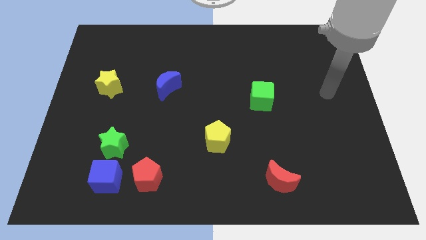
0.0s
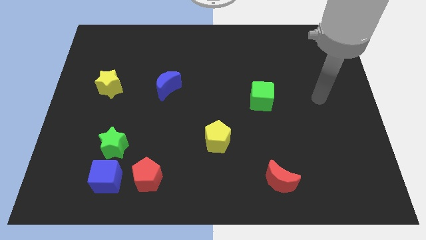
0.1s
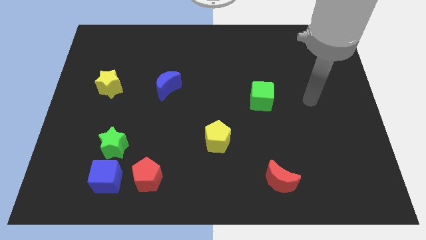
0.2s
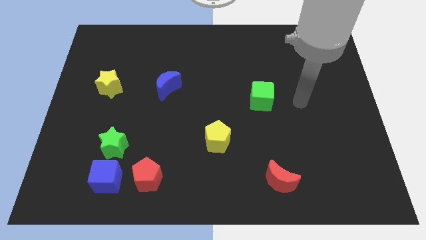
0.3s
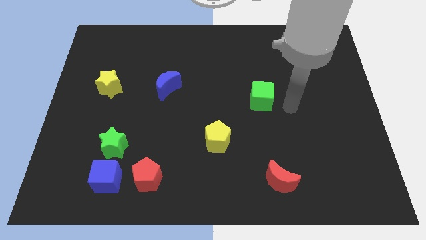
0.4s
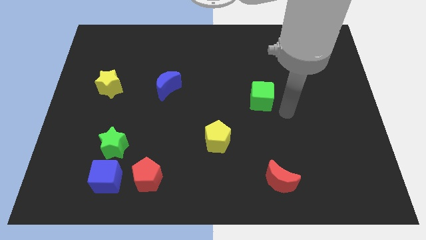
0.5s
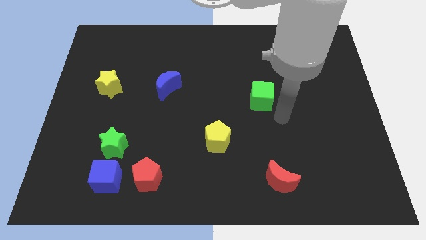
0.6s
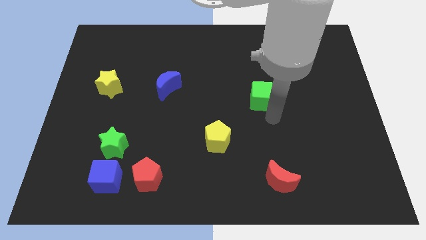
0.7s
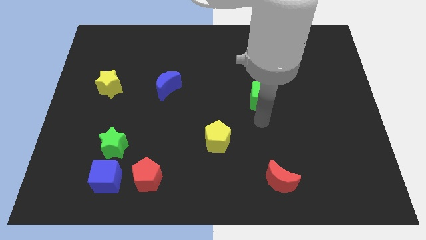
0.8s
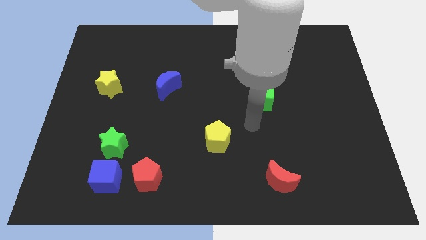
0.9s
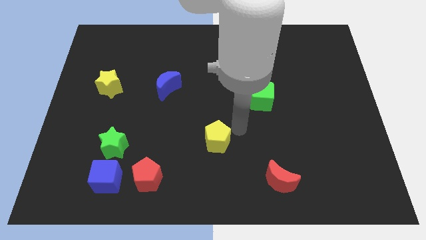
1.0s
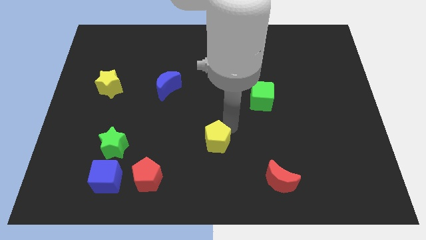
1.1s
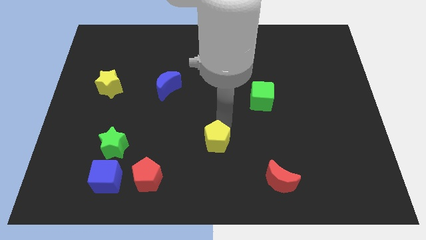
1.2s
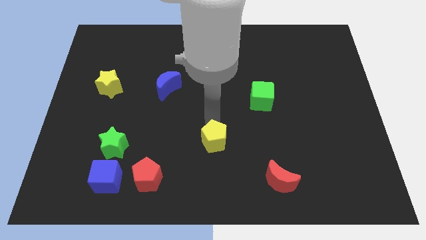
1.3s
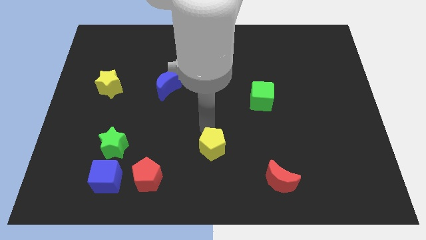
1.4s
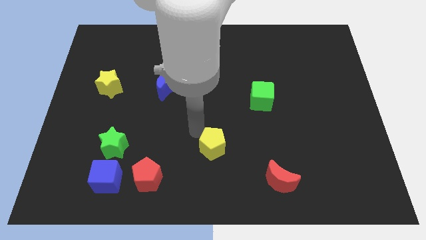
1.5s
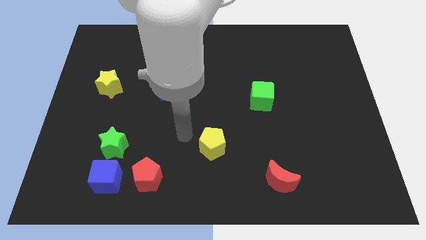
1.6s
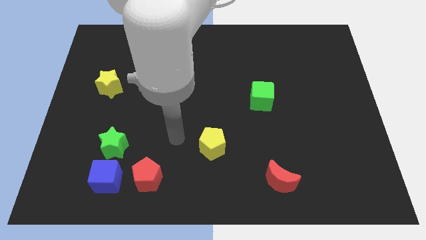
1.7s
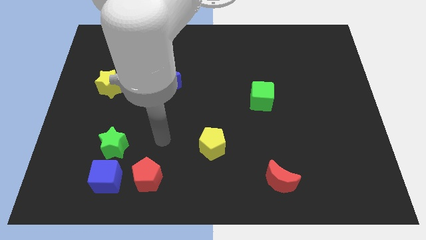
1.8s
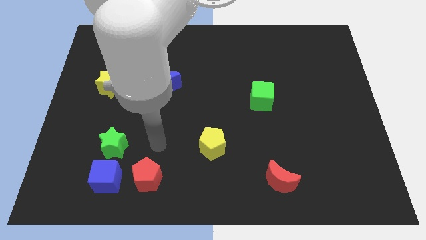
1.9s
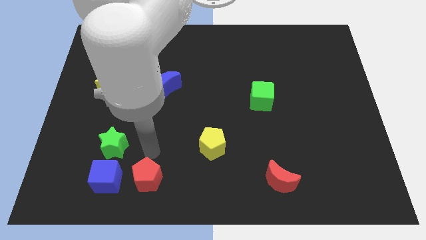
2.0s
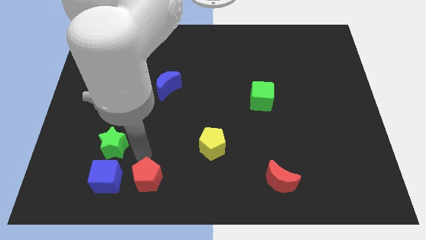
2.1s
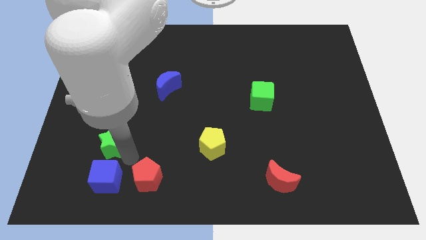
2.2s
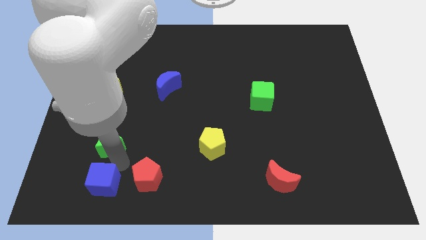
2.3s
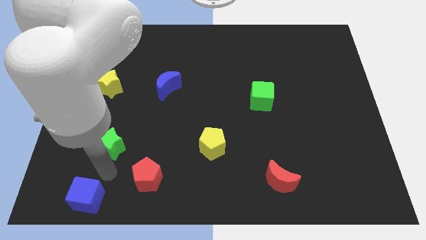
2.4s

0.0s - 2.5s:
pull the green star apart from the blue cube

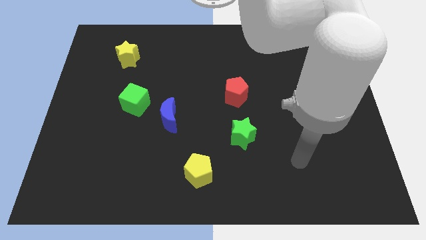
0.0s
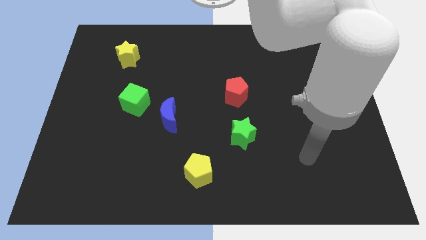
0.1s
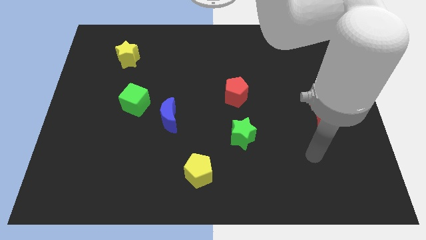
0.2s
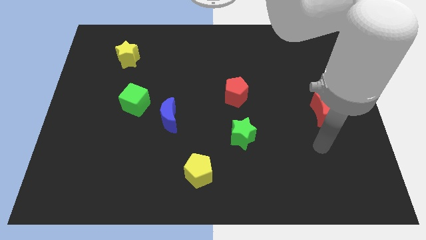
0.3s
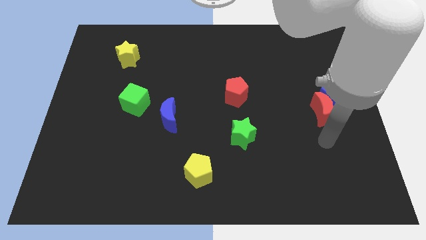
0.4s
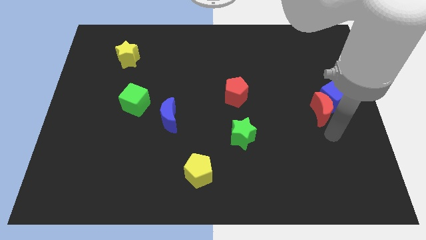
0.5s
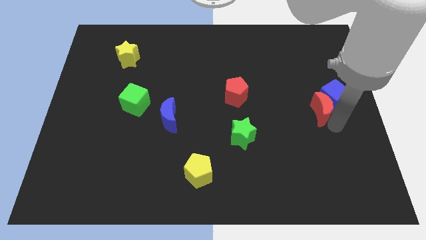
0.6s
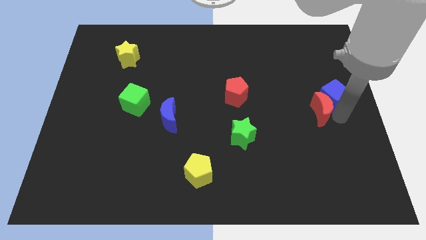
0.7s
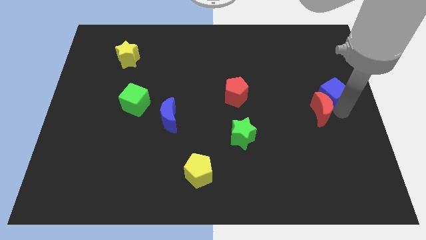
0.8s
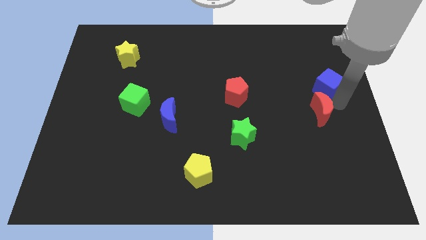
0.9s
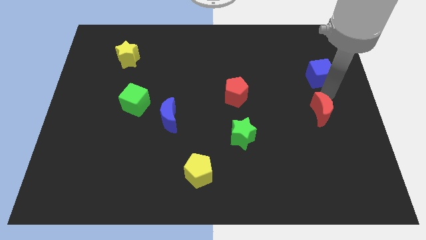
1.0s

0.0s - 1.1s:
pull the red moon apart from the blue cube

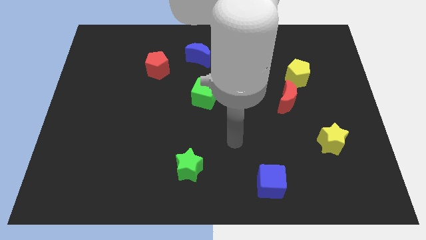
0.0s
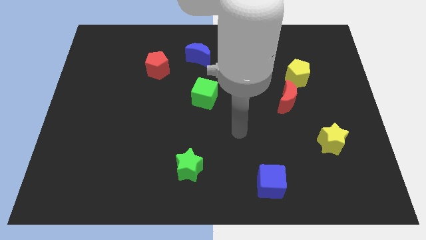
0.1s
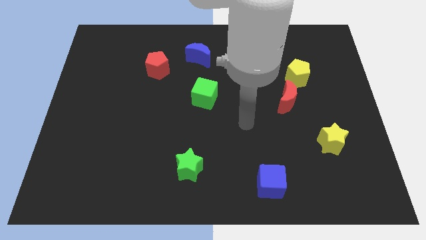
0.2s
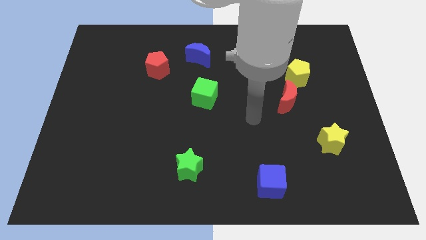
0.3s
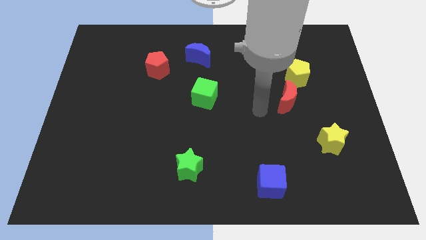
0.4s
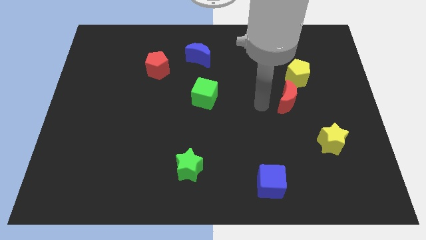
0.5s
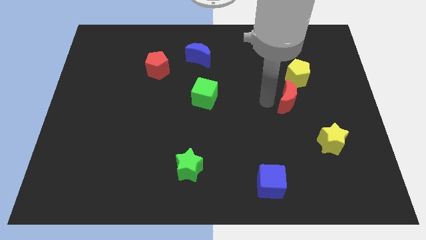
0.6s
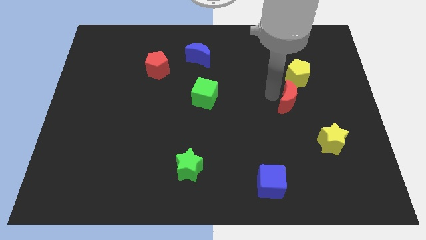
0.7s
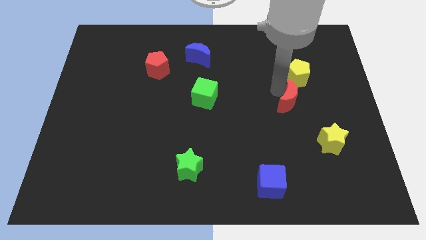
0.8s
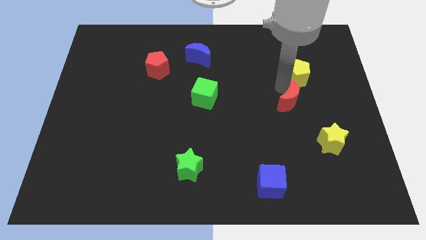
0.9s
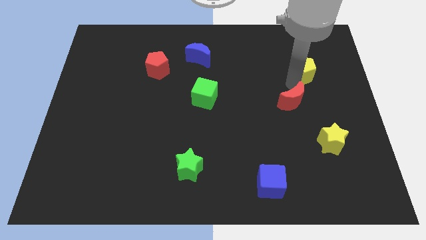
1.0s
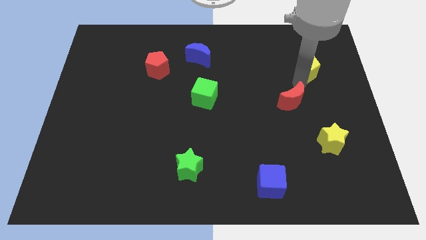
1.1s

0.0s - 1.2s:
pull the red moon apart from the yellow pentagon

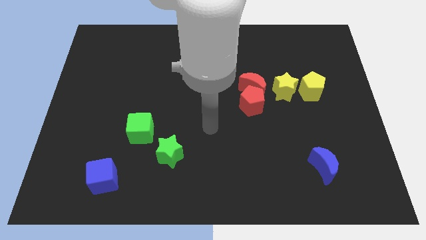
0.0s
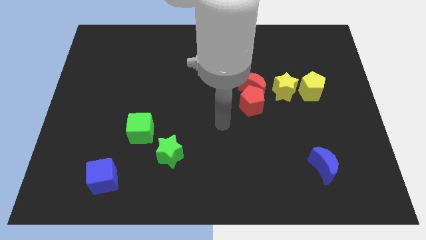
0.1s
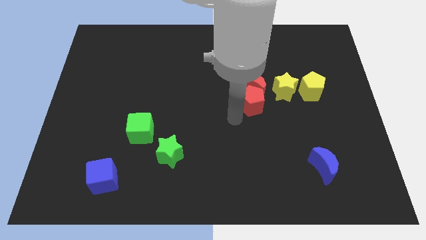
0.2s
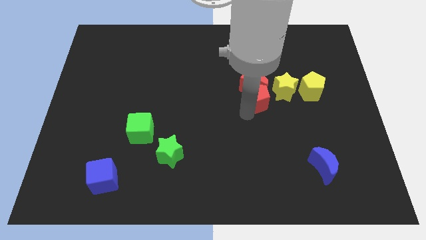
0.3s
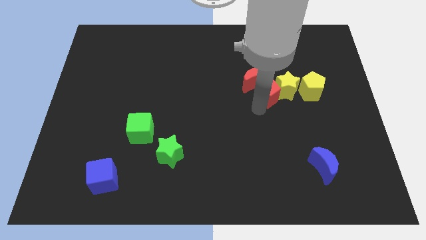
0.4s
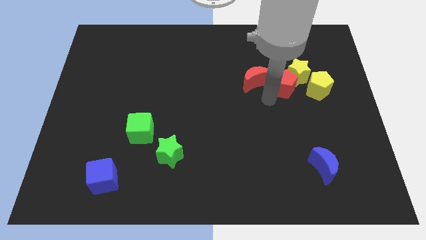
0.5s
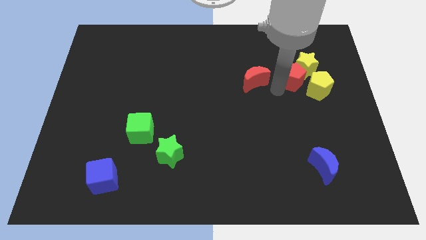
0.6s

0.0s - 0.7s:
separate the red moon from the red pentagon and yellow star

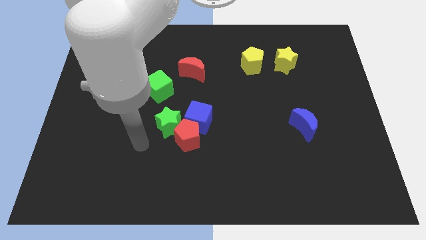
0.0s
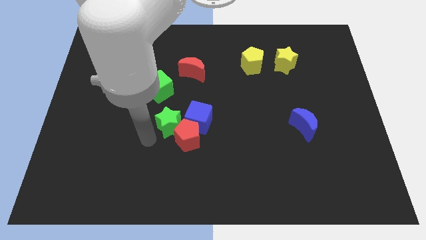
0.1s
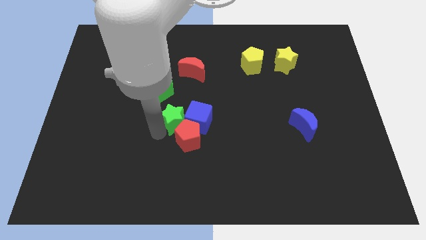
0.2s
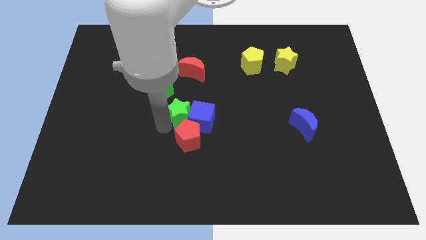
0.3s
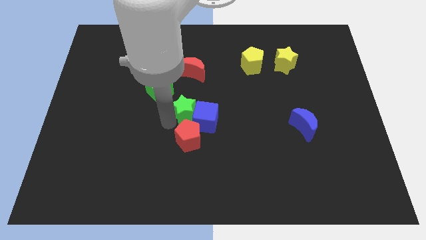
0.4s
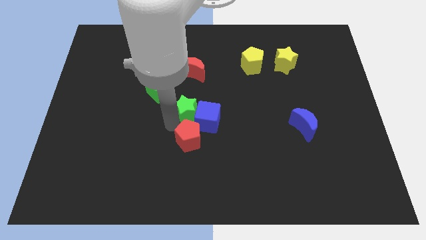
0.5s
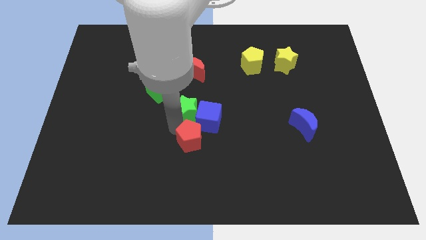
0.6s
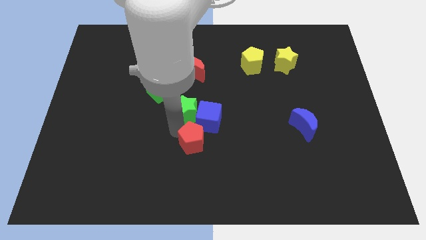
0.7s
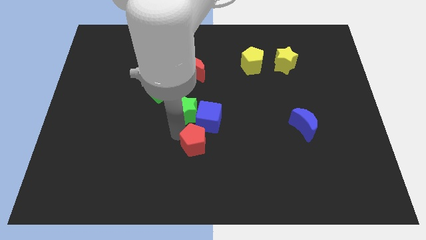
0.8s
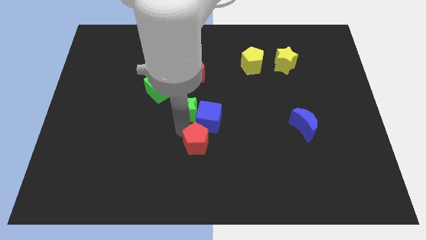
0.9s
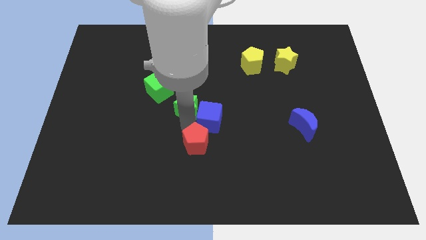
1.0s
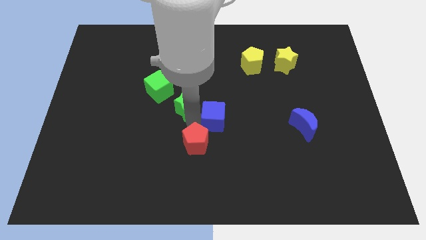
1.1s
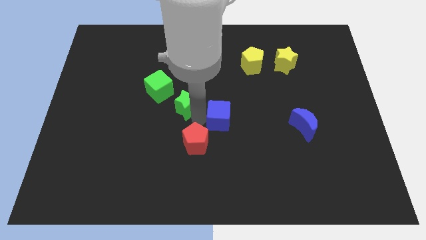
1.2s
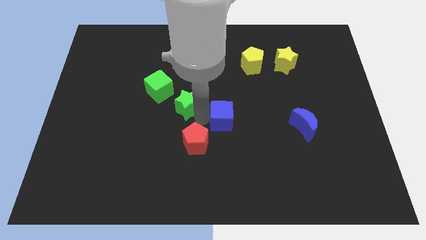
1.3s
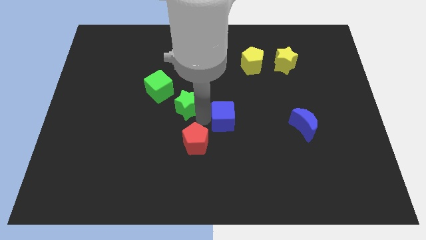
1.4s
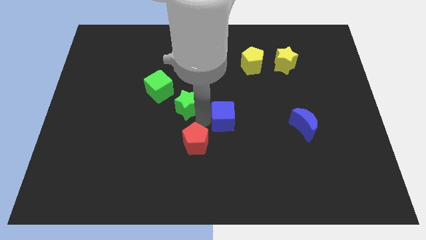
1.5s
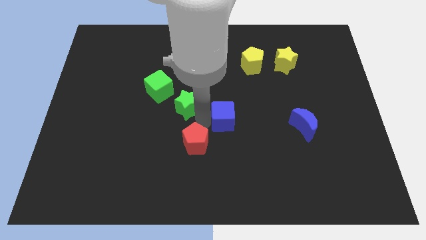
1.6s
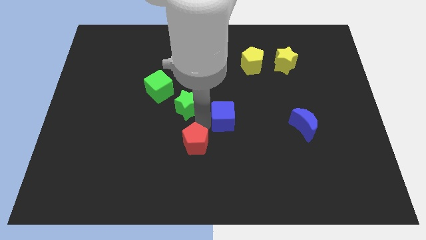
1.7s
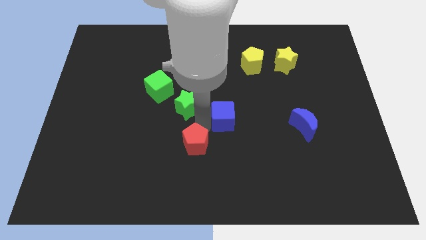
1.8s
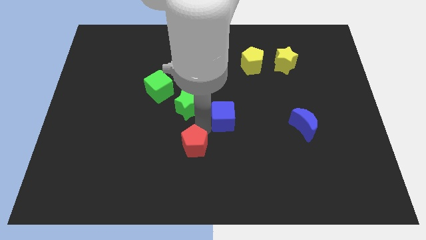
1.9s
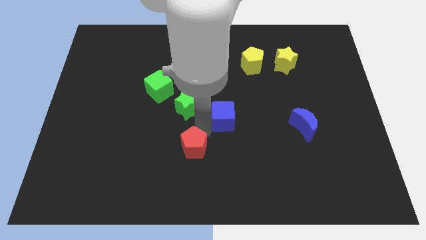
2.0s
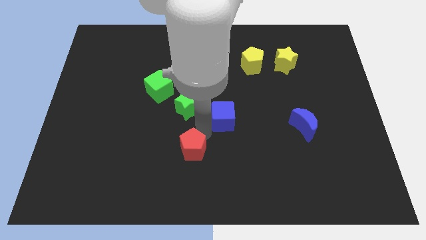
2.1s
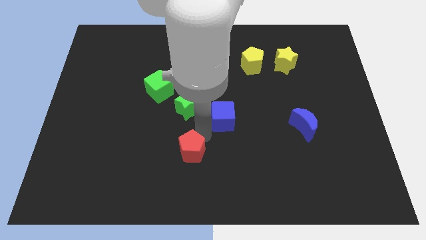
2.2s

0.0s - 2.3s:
move the red pentagon away from the green star and blue cube

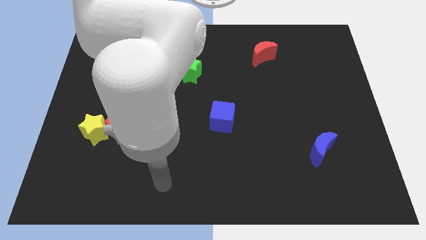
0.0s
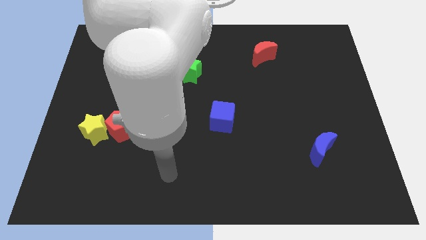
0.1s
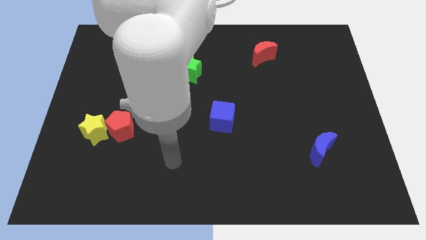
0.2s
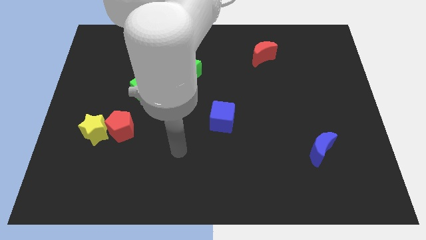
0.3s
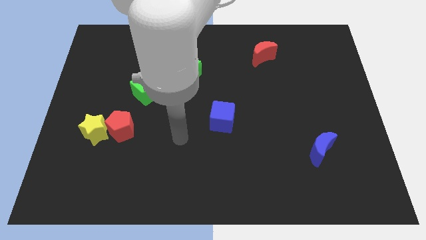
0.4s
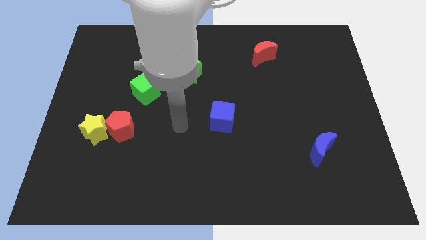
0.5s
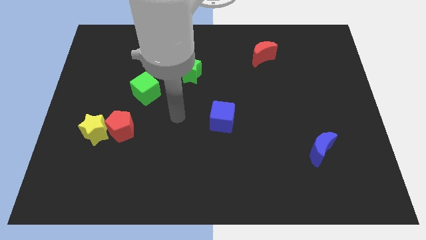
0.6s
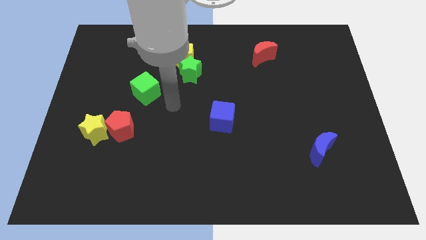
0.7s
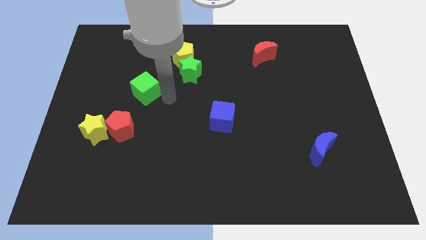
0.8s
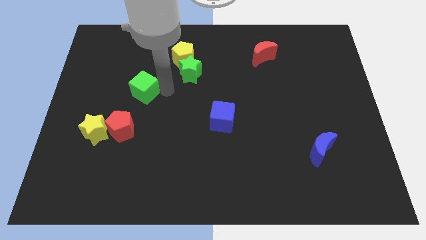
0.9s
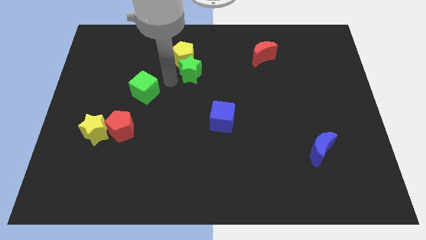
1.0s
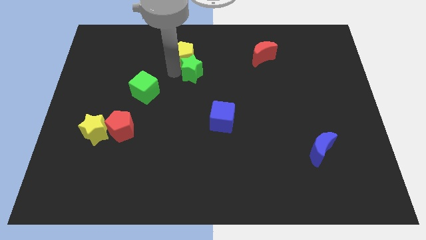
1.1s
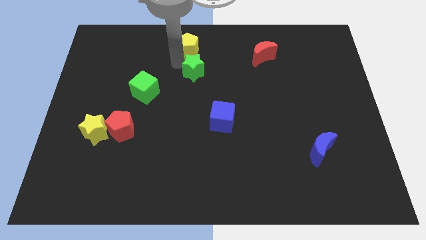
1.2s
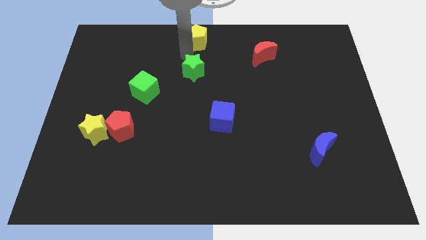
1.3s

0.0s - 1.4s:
separate the green star from the yellow pentagon

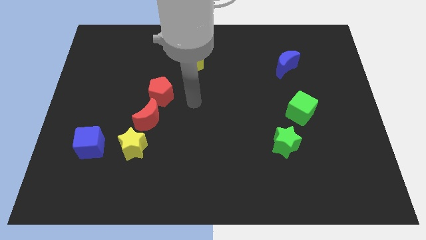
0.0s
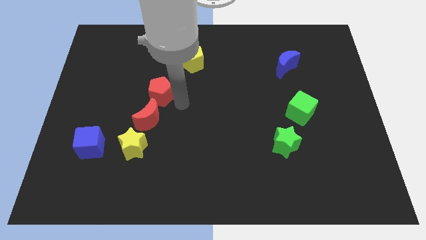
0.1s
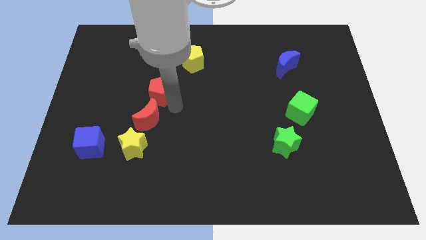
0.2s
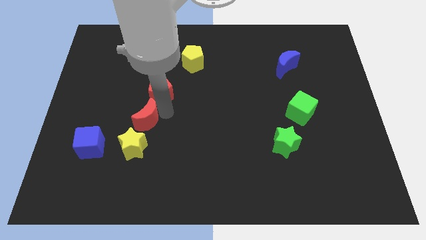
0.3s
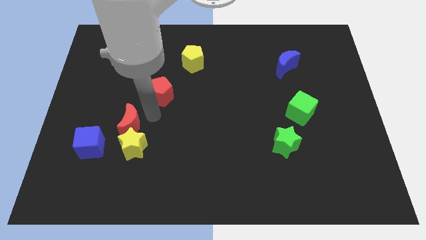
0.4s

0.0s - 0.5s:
pull the red pentagon apart from the red moon
